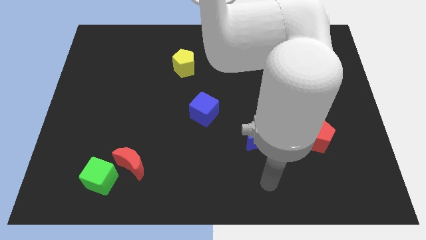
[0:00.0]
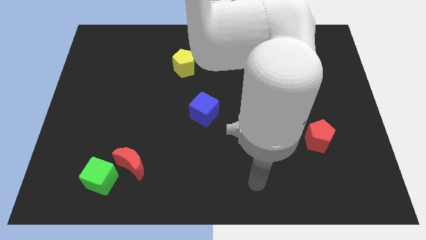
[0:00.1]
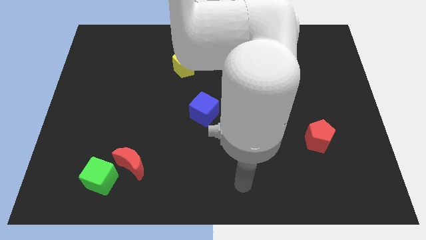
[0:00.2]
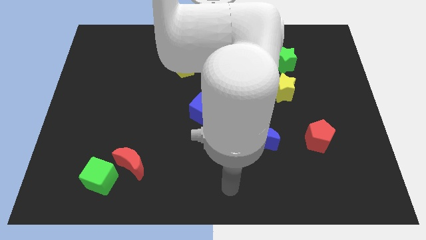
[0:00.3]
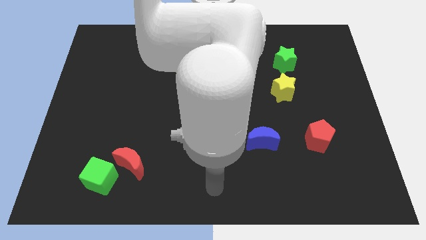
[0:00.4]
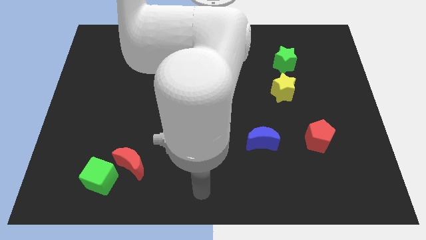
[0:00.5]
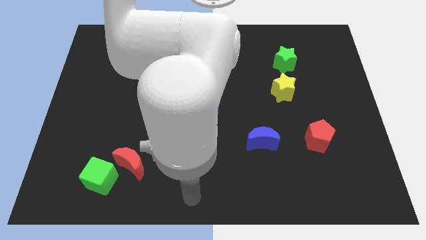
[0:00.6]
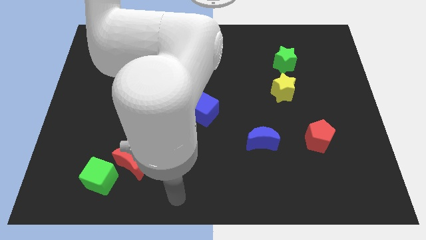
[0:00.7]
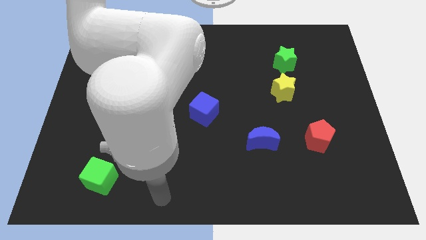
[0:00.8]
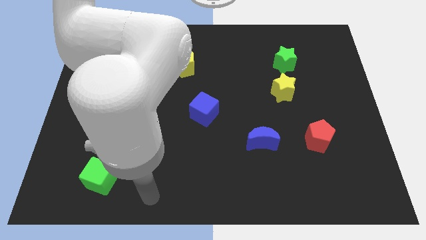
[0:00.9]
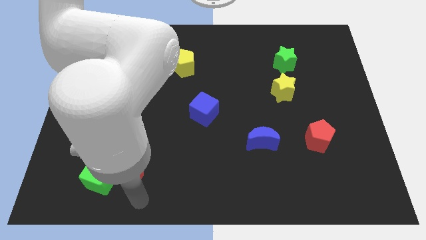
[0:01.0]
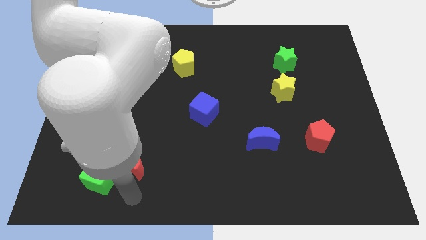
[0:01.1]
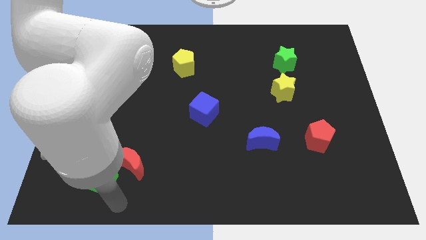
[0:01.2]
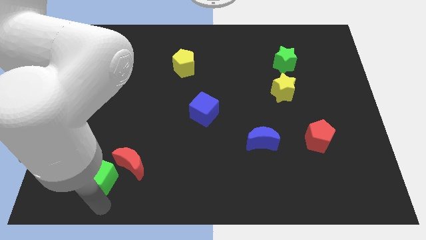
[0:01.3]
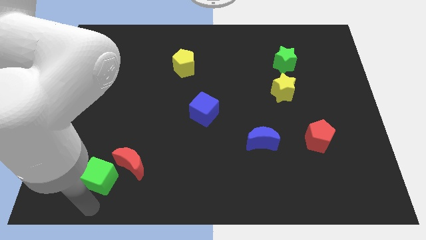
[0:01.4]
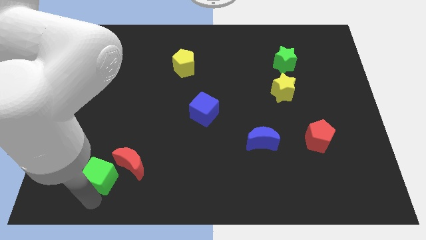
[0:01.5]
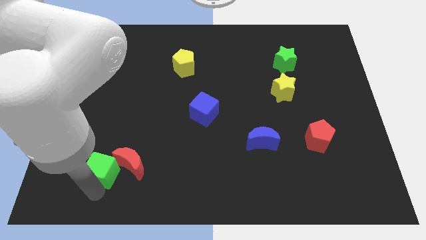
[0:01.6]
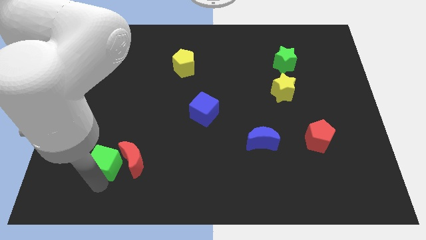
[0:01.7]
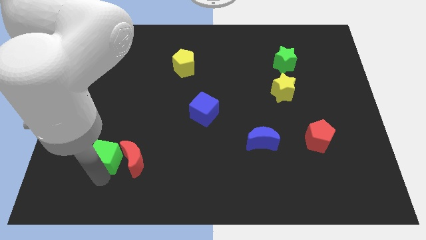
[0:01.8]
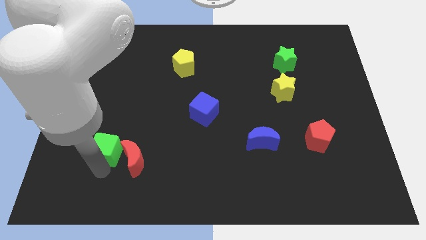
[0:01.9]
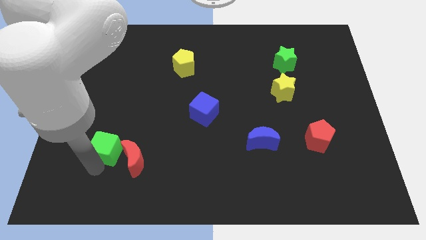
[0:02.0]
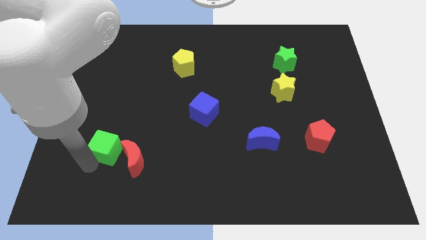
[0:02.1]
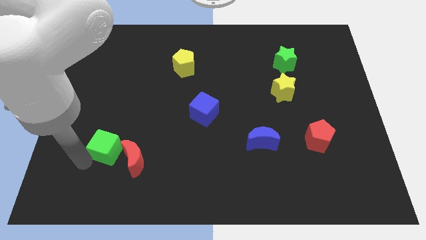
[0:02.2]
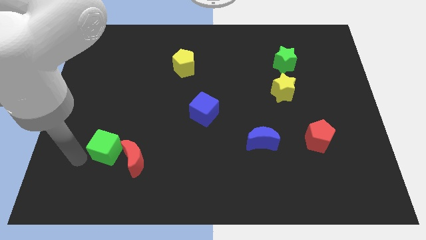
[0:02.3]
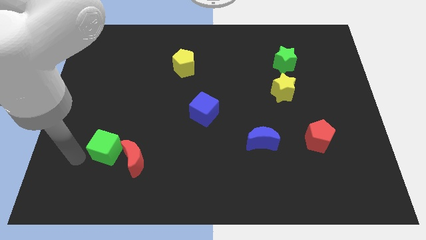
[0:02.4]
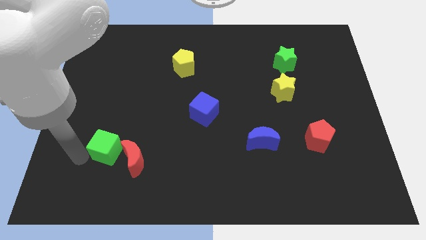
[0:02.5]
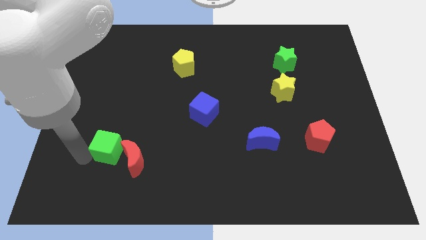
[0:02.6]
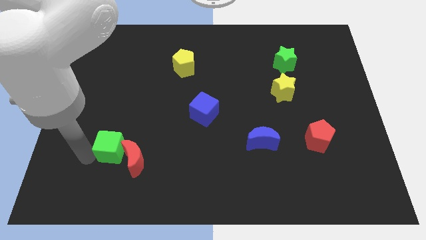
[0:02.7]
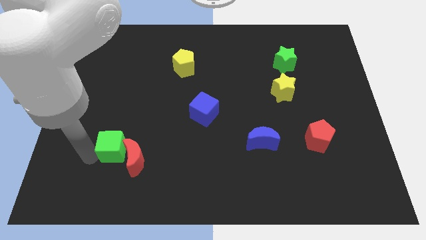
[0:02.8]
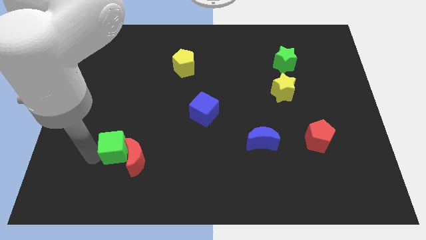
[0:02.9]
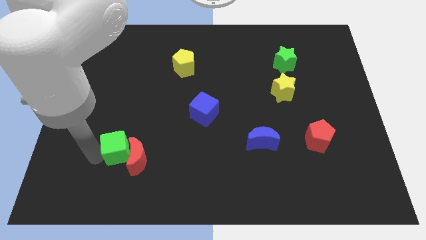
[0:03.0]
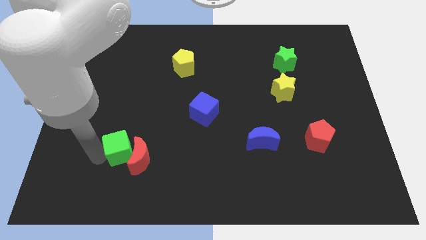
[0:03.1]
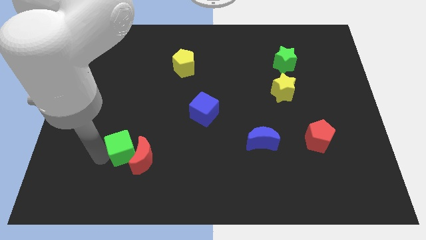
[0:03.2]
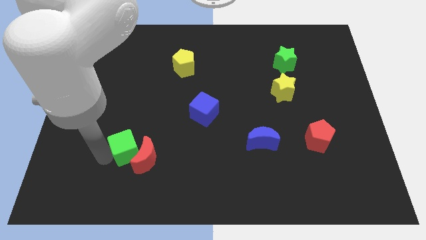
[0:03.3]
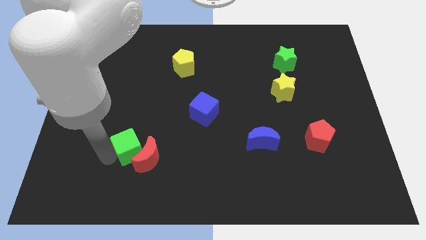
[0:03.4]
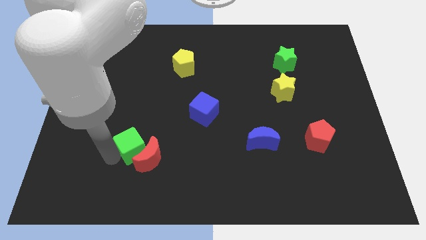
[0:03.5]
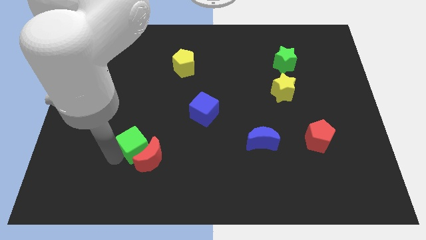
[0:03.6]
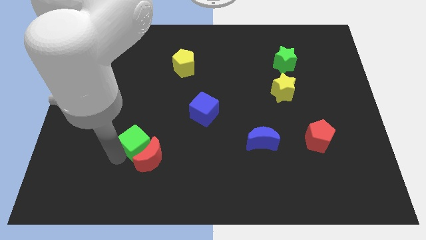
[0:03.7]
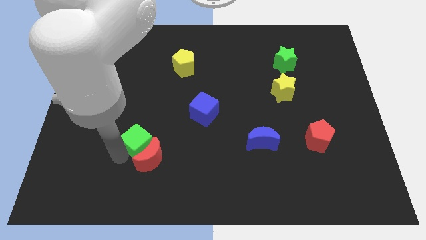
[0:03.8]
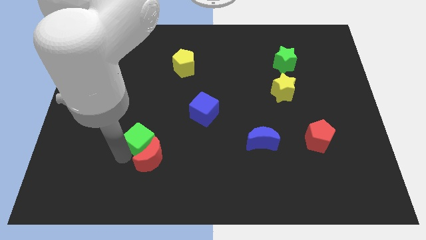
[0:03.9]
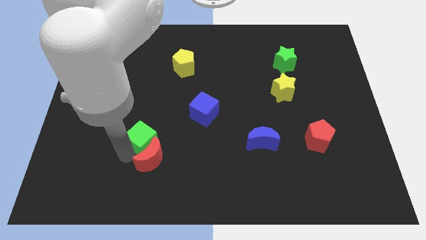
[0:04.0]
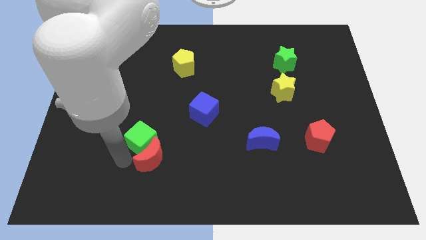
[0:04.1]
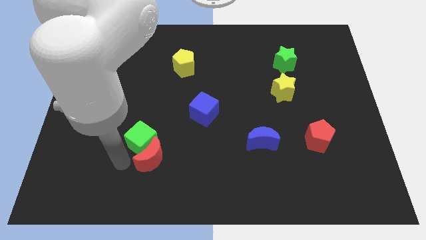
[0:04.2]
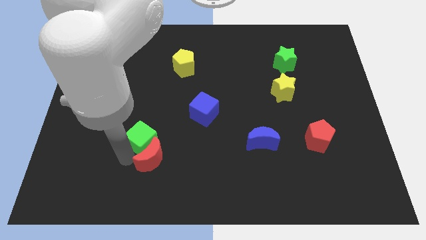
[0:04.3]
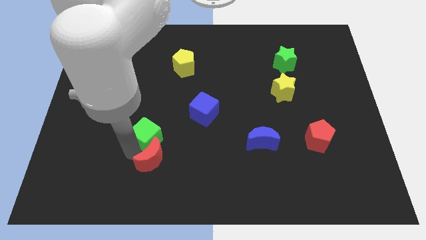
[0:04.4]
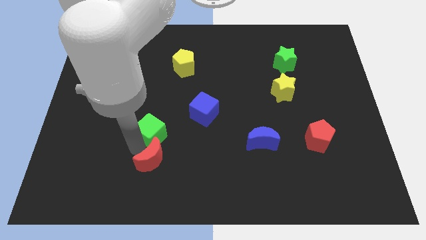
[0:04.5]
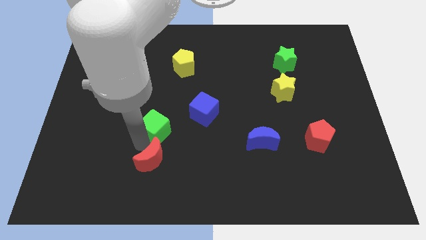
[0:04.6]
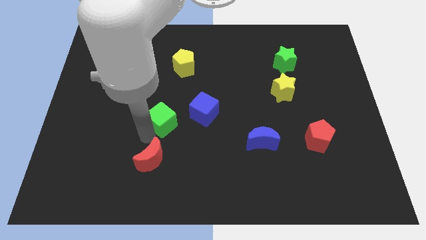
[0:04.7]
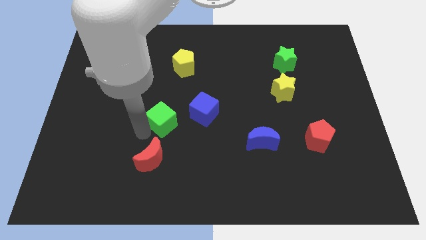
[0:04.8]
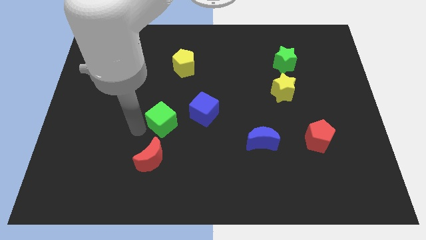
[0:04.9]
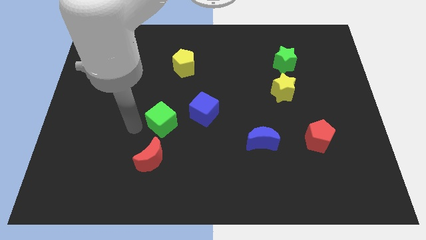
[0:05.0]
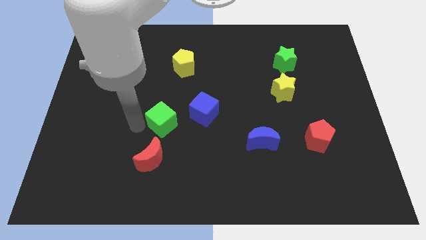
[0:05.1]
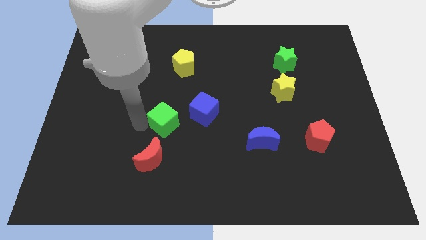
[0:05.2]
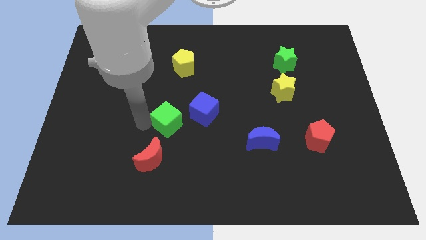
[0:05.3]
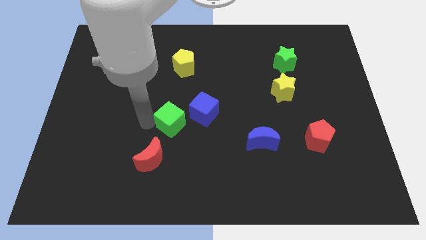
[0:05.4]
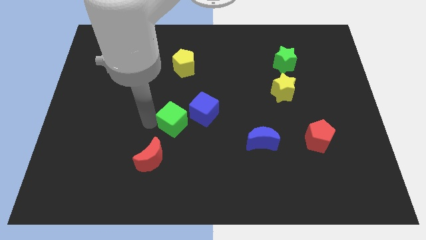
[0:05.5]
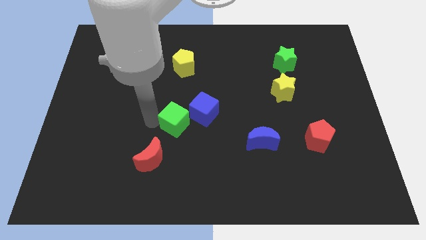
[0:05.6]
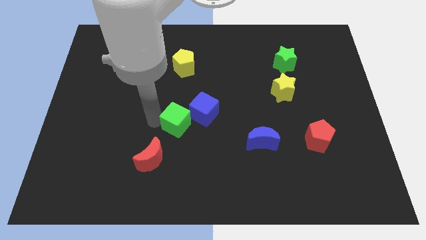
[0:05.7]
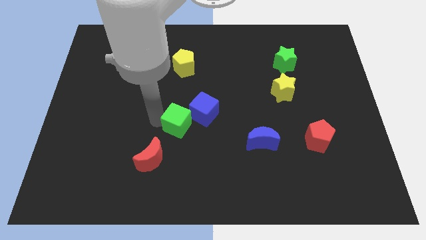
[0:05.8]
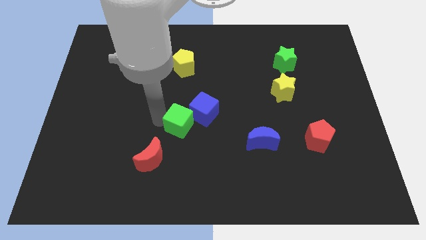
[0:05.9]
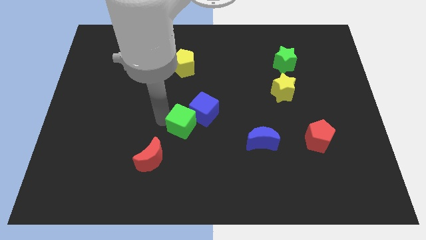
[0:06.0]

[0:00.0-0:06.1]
move the green cube close to the blue cube
